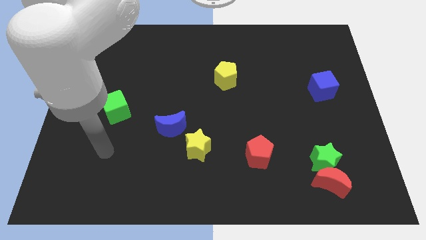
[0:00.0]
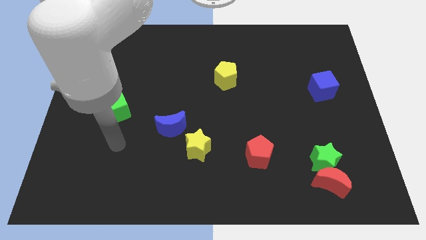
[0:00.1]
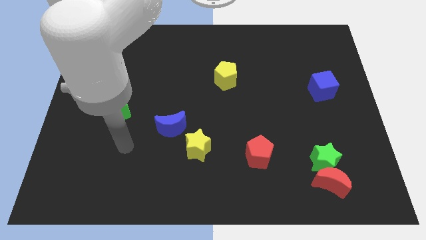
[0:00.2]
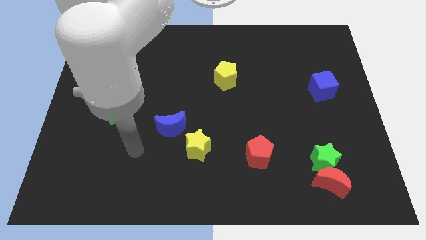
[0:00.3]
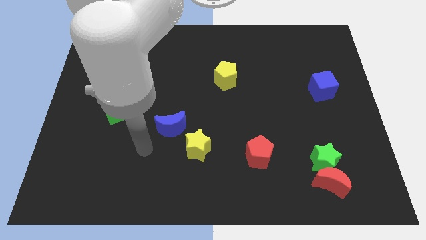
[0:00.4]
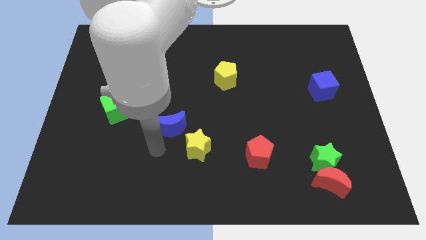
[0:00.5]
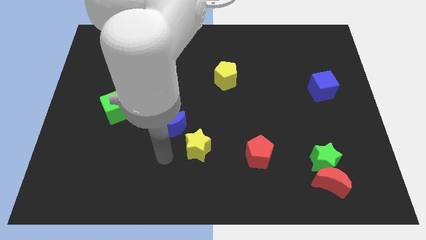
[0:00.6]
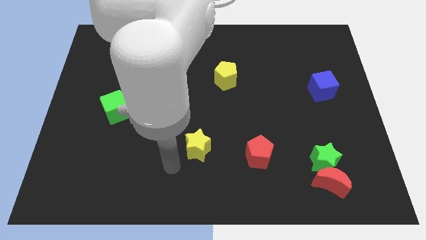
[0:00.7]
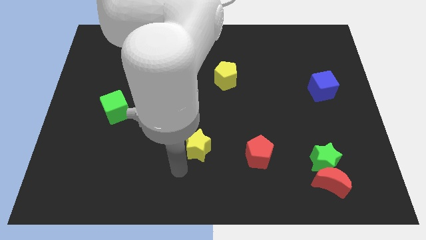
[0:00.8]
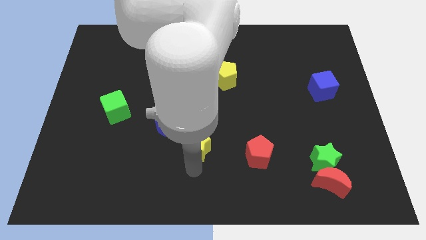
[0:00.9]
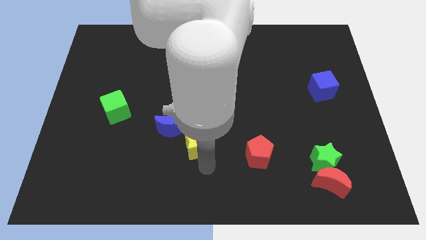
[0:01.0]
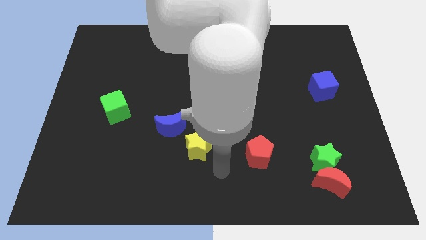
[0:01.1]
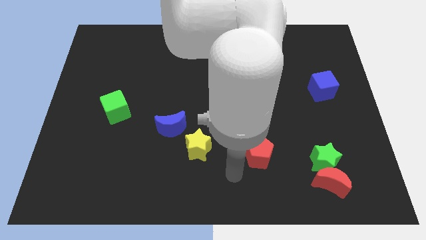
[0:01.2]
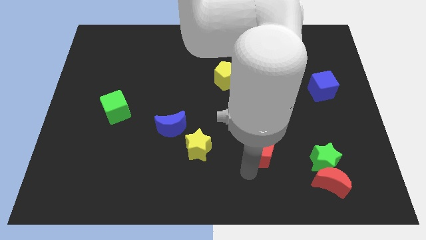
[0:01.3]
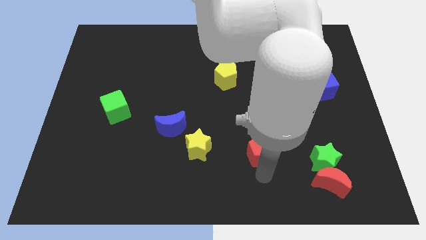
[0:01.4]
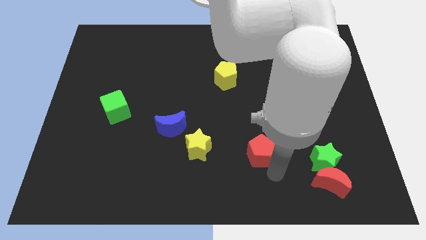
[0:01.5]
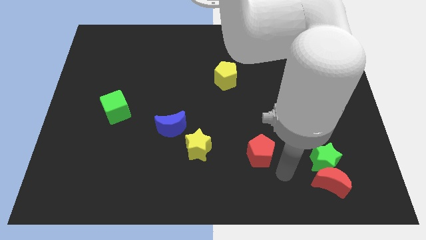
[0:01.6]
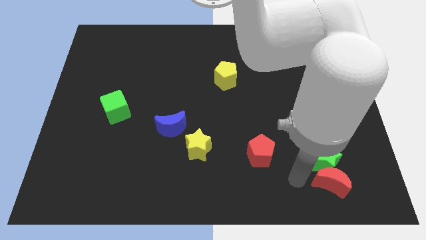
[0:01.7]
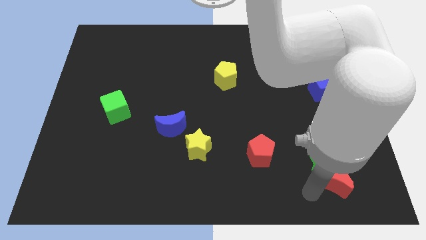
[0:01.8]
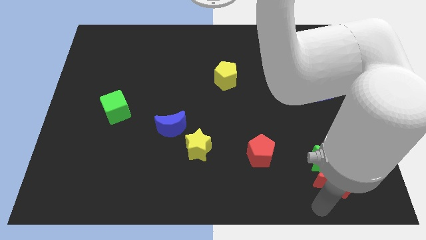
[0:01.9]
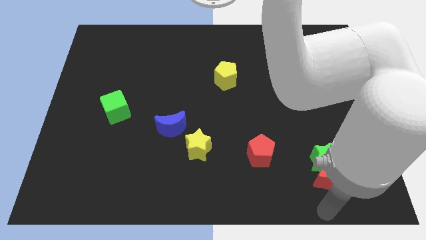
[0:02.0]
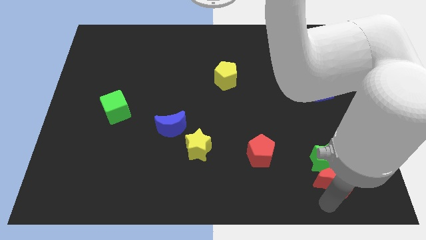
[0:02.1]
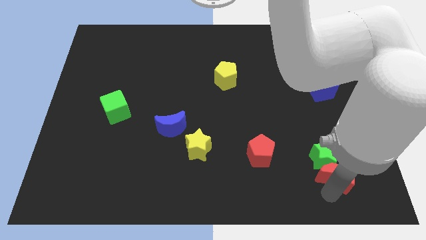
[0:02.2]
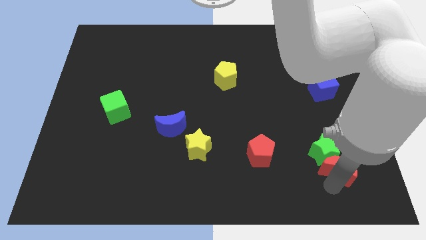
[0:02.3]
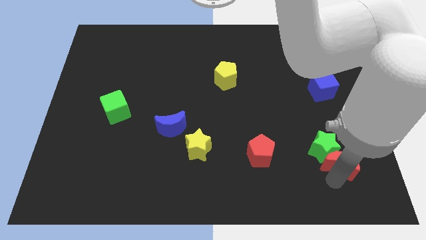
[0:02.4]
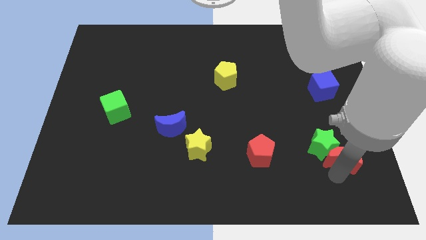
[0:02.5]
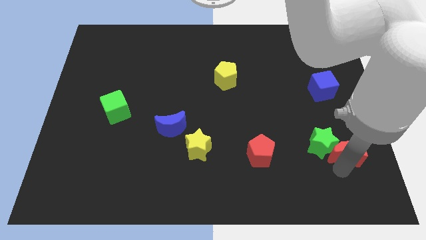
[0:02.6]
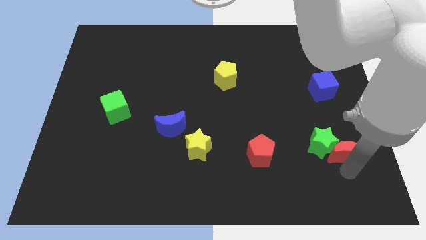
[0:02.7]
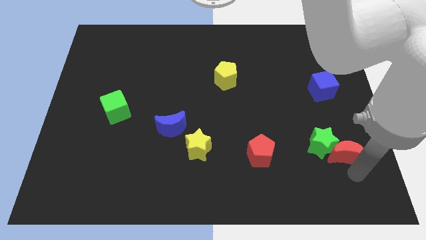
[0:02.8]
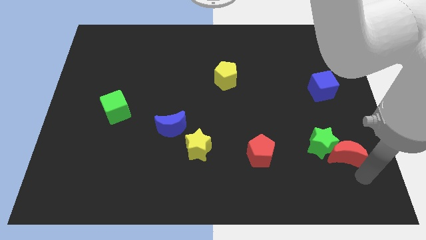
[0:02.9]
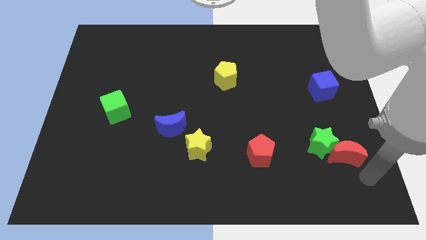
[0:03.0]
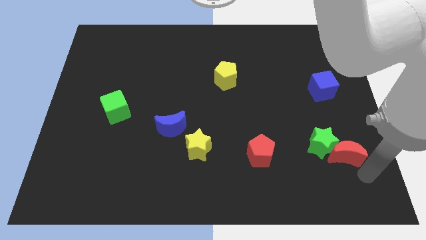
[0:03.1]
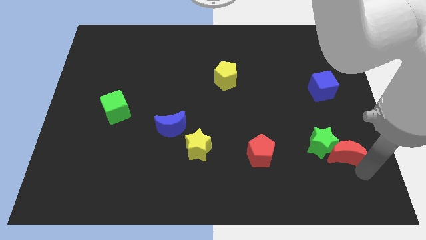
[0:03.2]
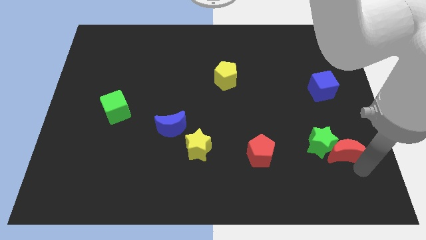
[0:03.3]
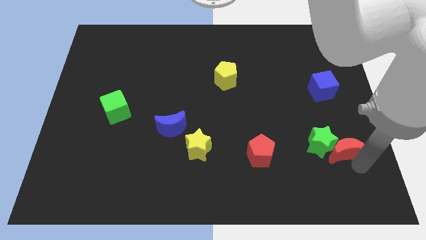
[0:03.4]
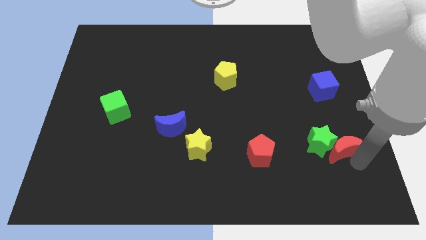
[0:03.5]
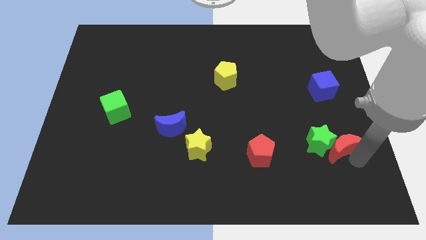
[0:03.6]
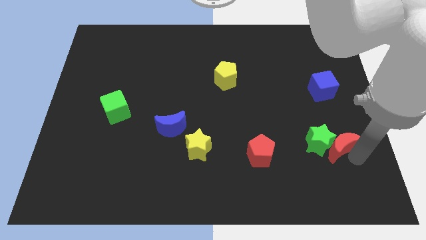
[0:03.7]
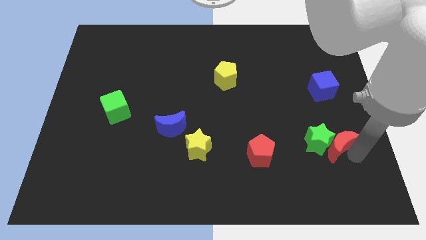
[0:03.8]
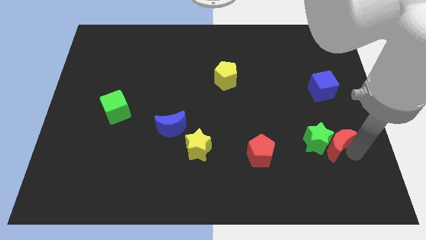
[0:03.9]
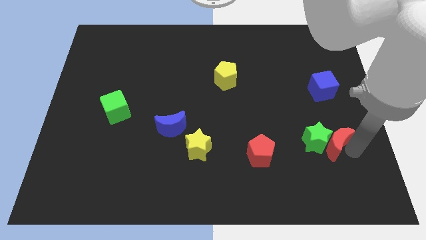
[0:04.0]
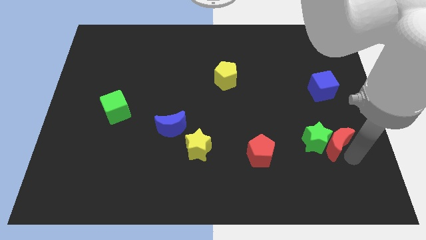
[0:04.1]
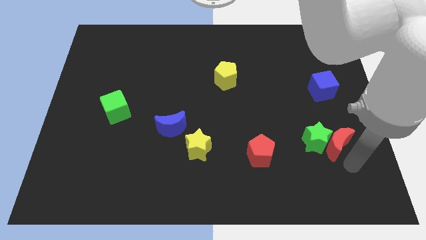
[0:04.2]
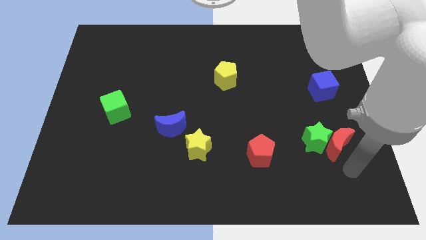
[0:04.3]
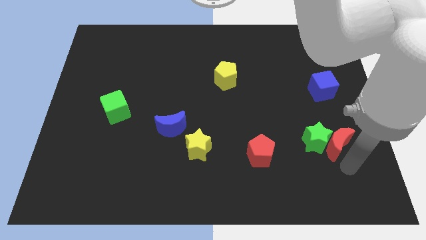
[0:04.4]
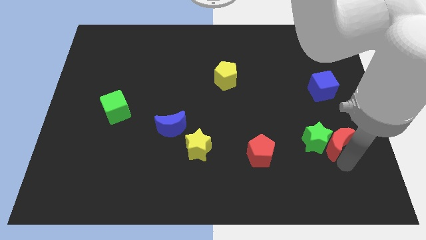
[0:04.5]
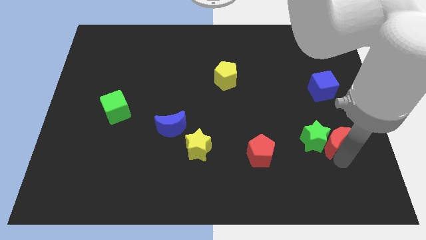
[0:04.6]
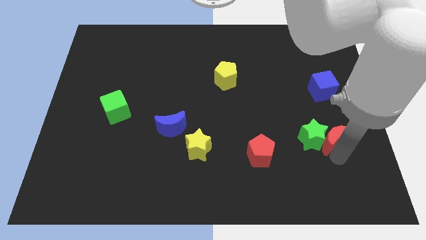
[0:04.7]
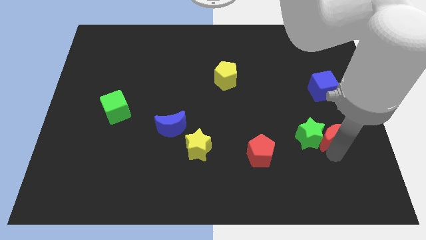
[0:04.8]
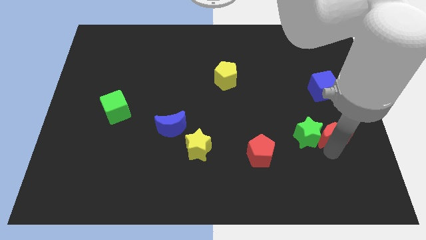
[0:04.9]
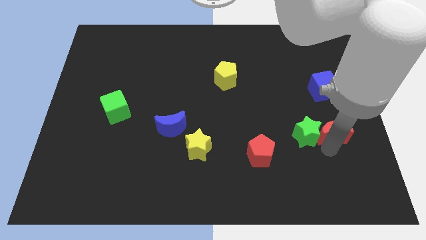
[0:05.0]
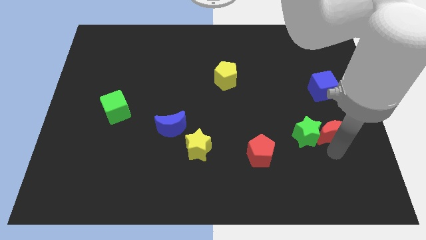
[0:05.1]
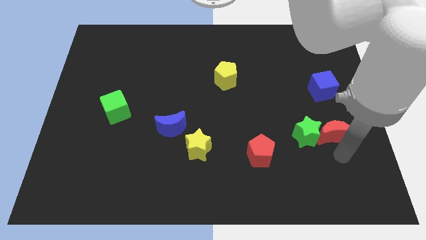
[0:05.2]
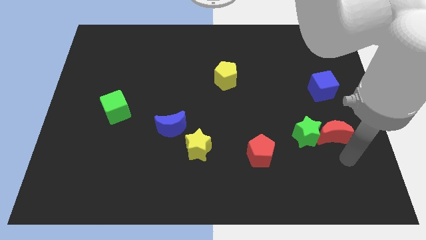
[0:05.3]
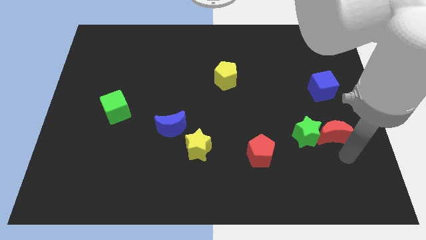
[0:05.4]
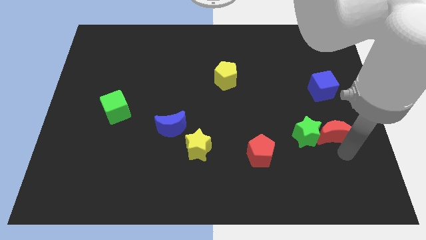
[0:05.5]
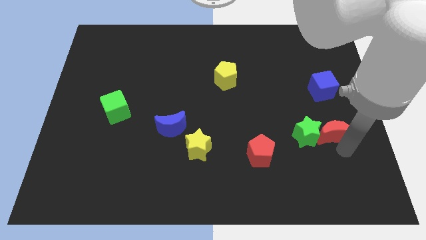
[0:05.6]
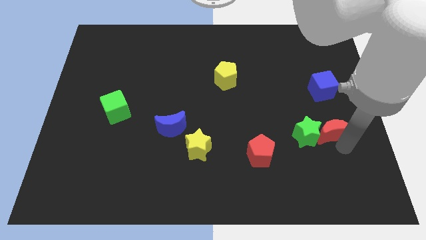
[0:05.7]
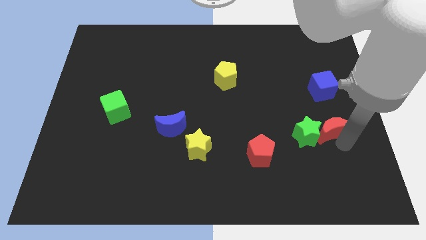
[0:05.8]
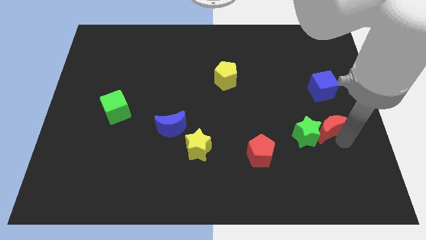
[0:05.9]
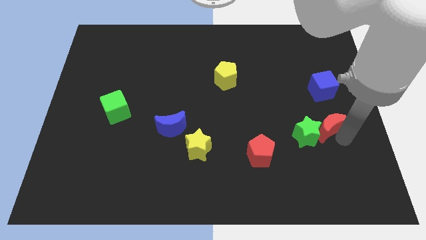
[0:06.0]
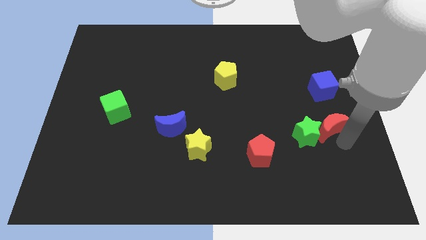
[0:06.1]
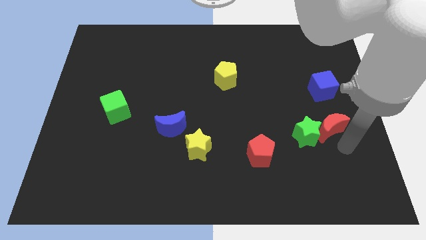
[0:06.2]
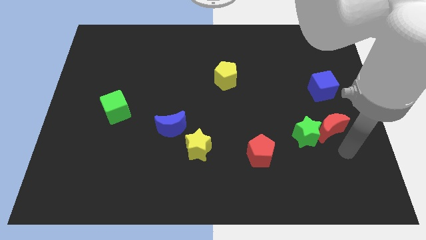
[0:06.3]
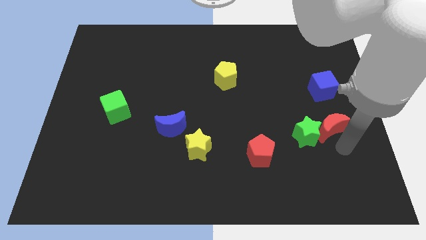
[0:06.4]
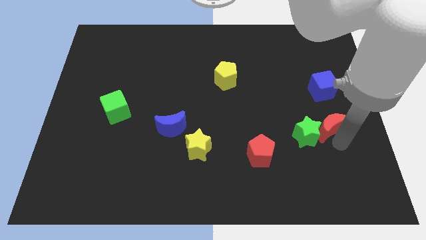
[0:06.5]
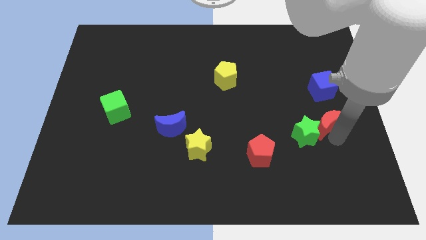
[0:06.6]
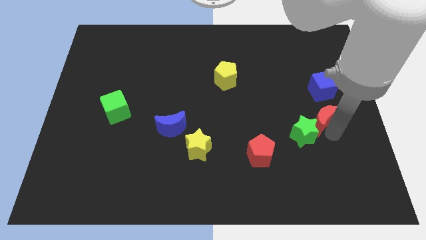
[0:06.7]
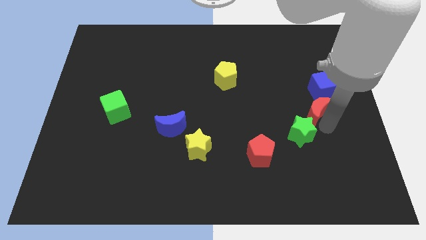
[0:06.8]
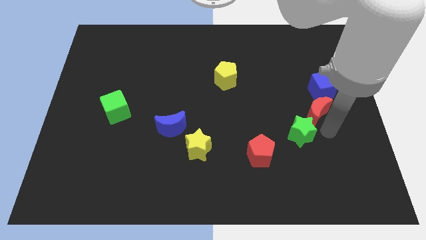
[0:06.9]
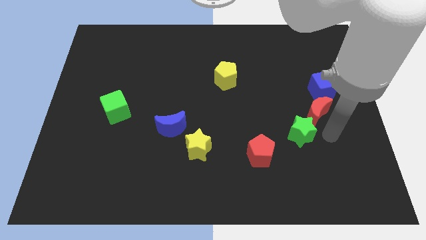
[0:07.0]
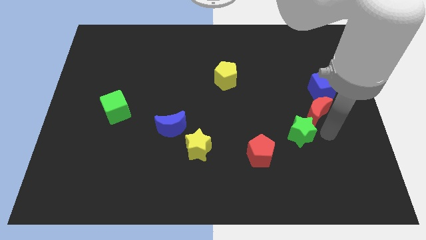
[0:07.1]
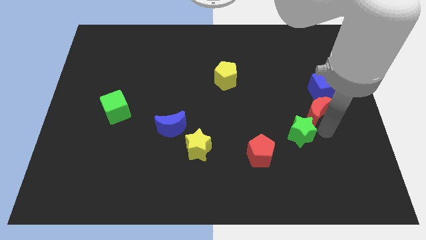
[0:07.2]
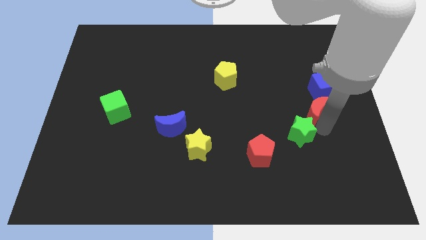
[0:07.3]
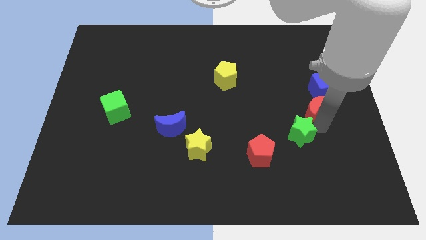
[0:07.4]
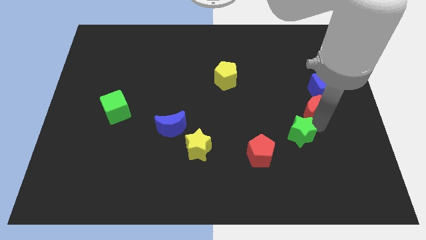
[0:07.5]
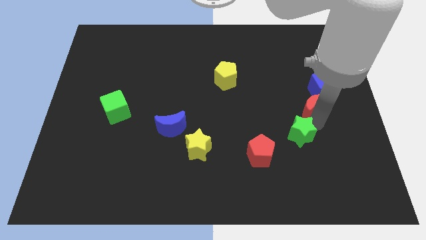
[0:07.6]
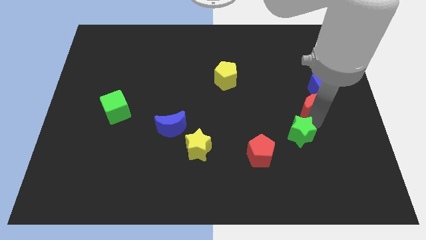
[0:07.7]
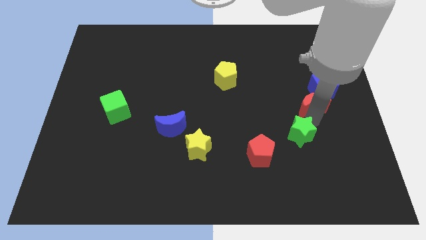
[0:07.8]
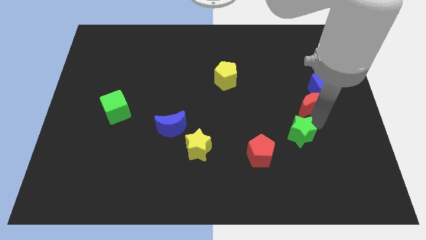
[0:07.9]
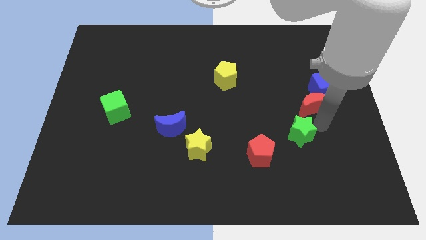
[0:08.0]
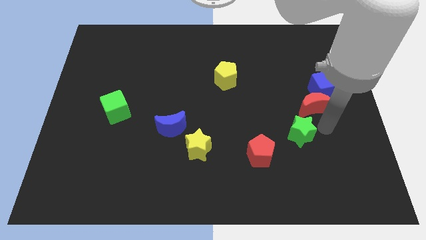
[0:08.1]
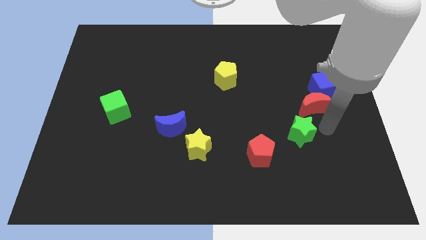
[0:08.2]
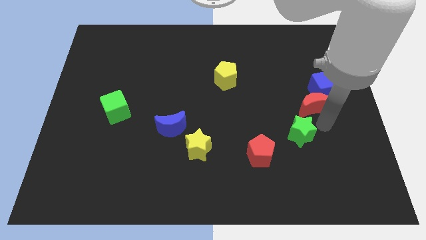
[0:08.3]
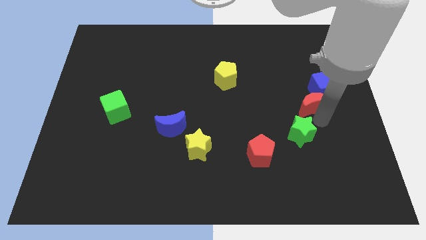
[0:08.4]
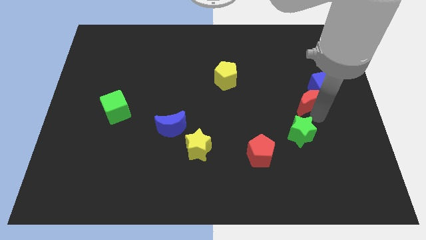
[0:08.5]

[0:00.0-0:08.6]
push the red moon up
